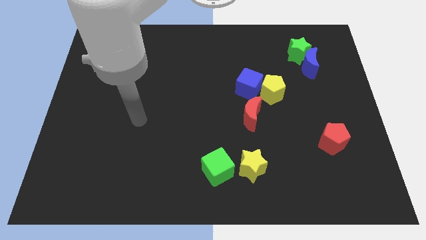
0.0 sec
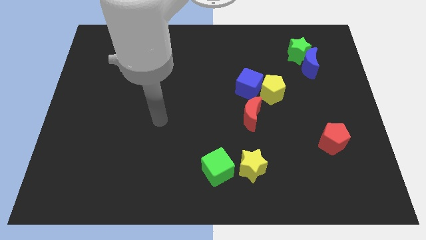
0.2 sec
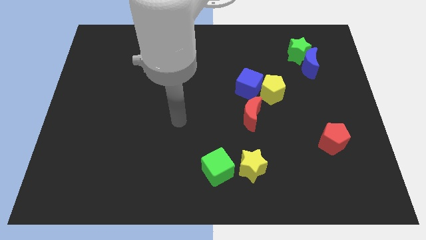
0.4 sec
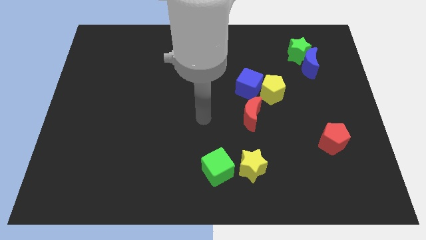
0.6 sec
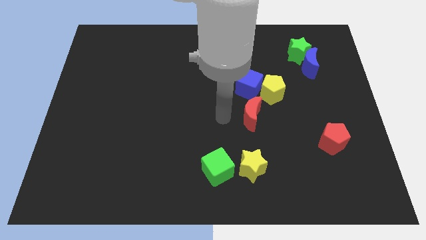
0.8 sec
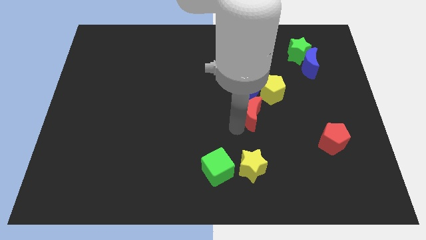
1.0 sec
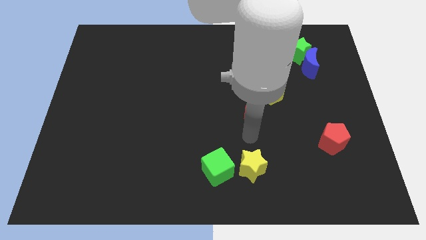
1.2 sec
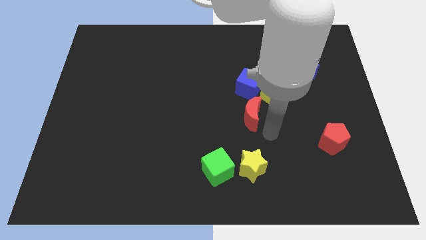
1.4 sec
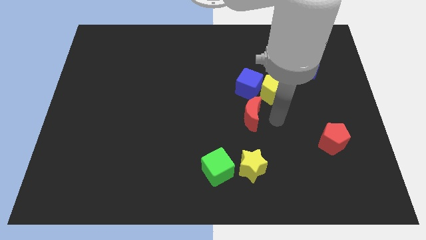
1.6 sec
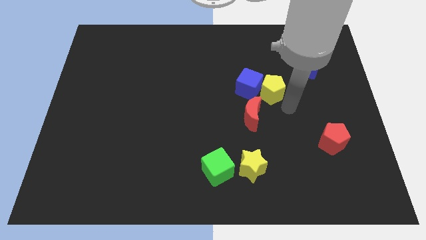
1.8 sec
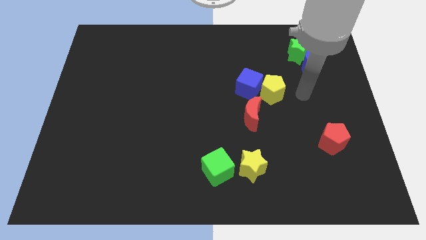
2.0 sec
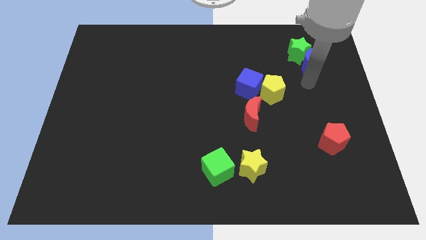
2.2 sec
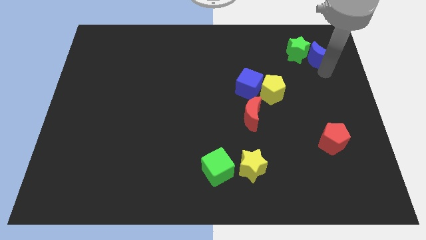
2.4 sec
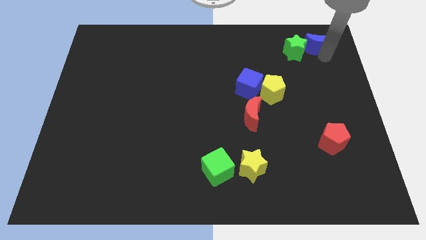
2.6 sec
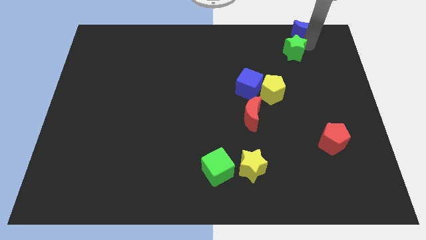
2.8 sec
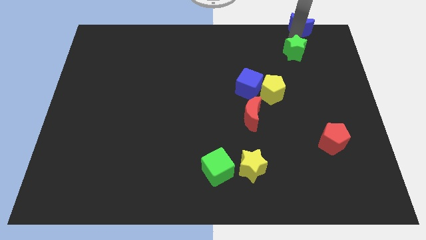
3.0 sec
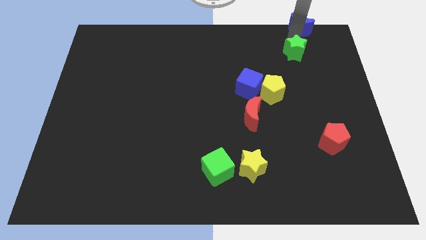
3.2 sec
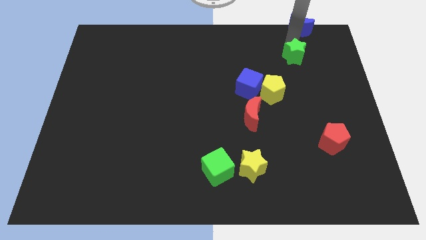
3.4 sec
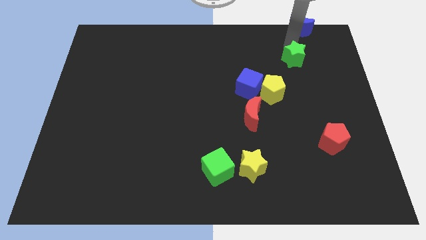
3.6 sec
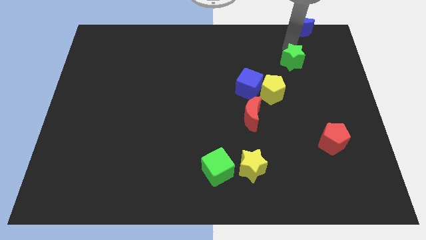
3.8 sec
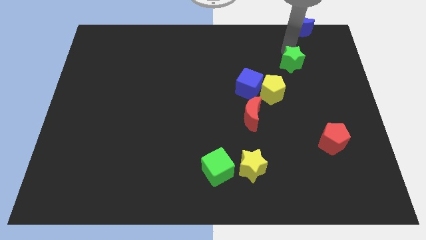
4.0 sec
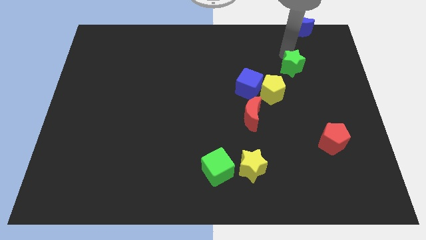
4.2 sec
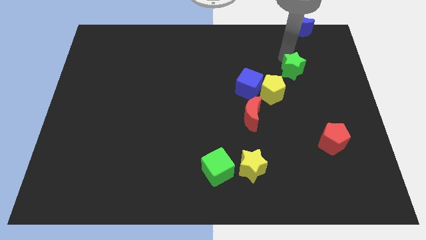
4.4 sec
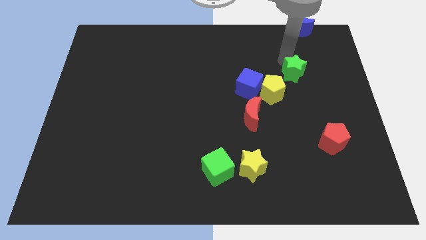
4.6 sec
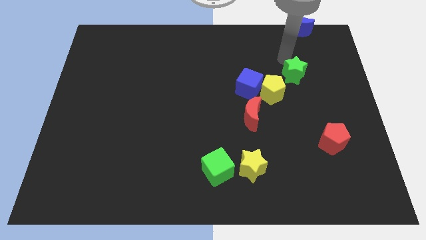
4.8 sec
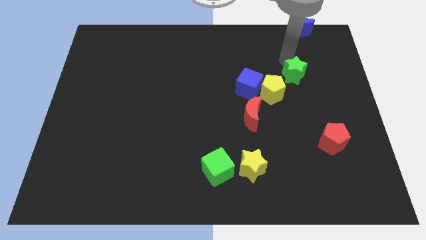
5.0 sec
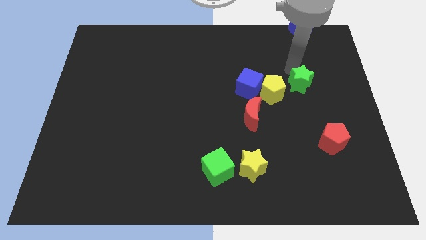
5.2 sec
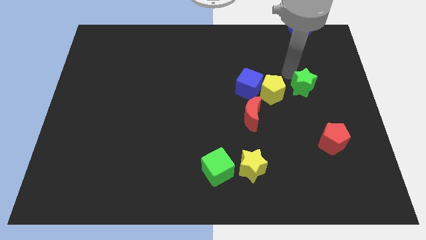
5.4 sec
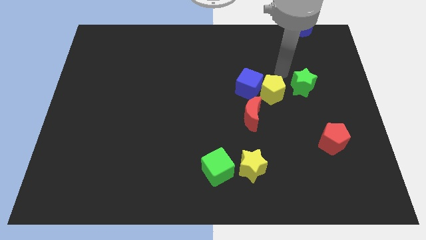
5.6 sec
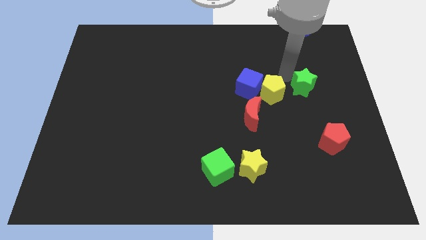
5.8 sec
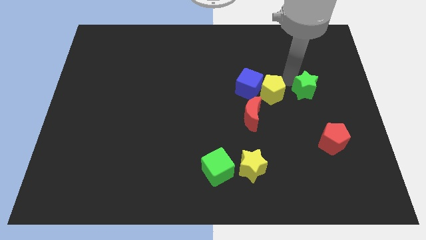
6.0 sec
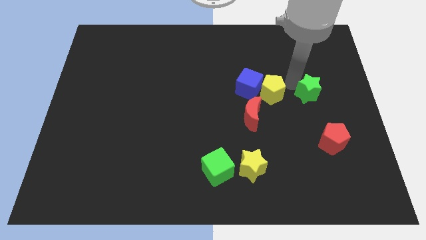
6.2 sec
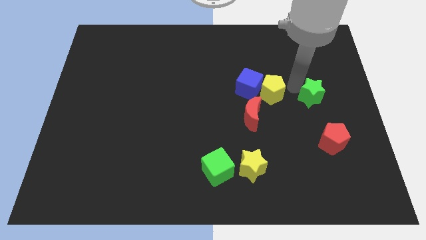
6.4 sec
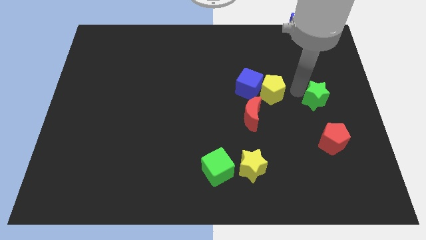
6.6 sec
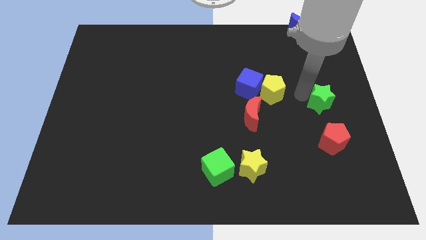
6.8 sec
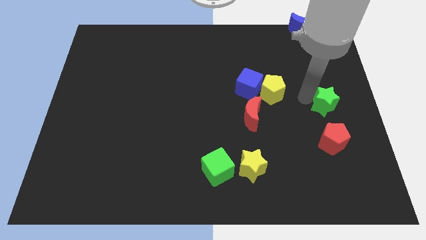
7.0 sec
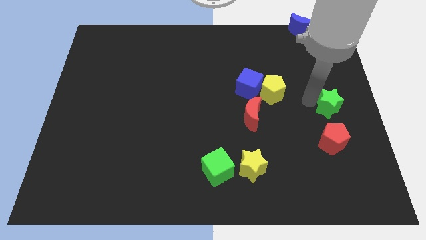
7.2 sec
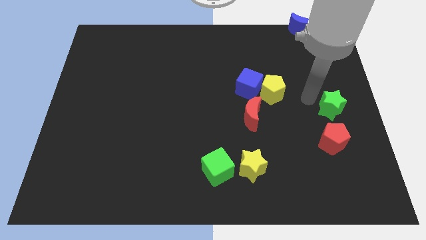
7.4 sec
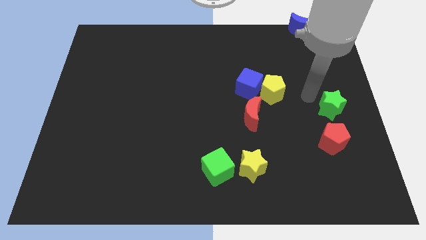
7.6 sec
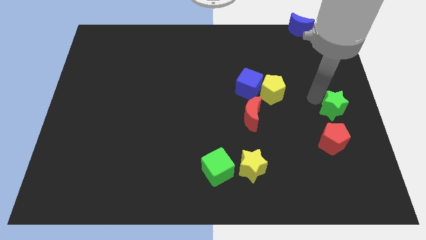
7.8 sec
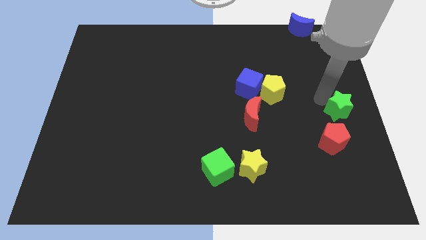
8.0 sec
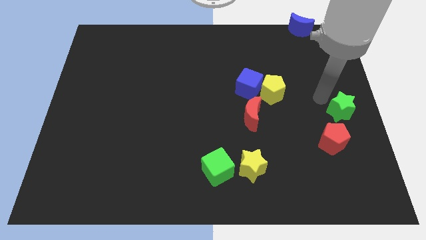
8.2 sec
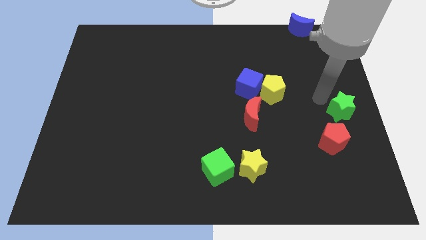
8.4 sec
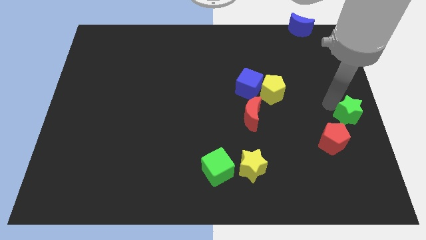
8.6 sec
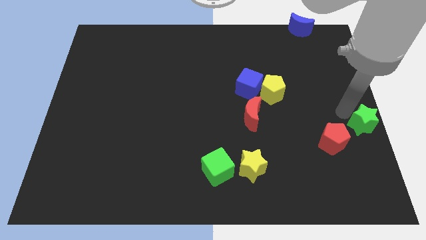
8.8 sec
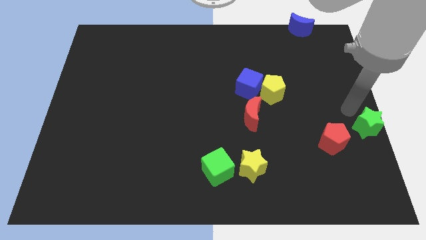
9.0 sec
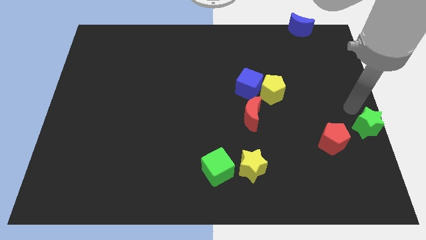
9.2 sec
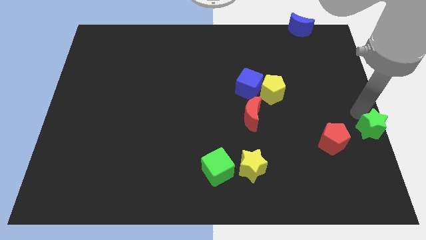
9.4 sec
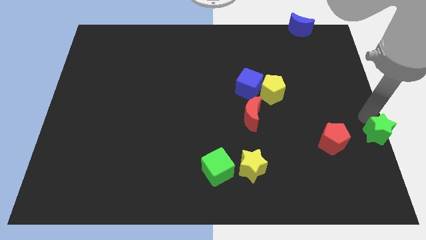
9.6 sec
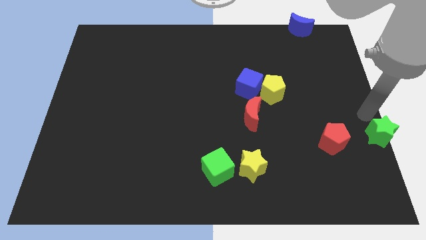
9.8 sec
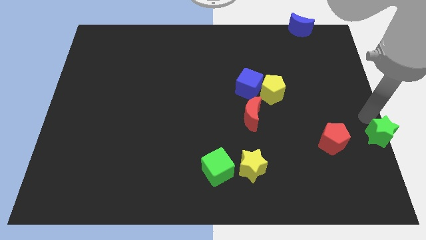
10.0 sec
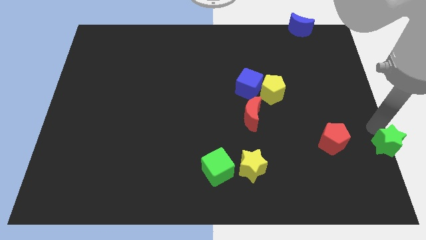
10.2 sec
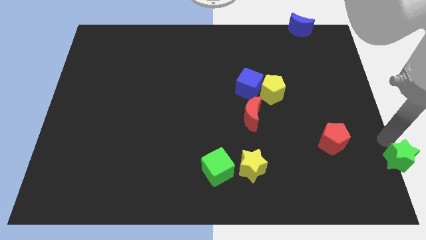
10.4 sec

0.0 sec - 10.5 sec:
push the green star to the bottom right of the board

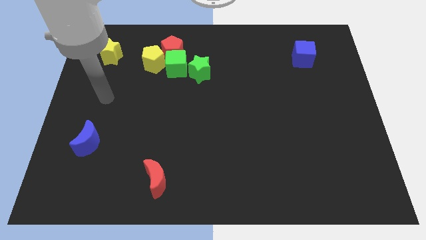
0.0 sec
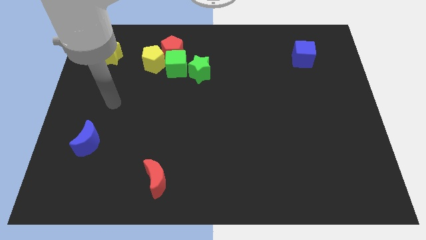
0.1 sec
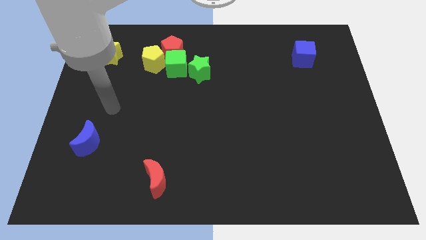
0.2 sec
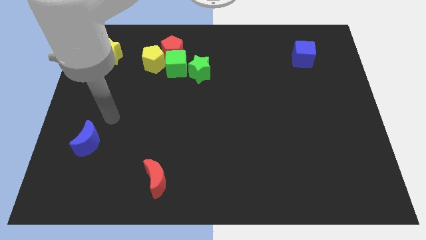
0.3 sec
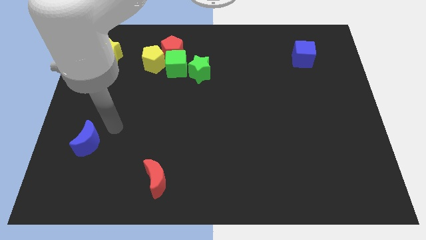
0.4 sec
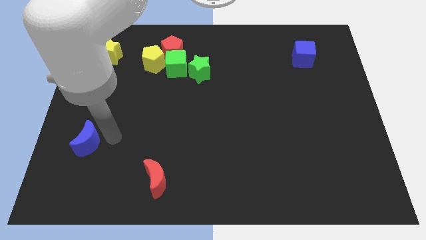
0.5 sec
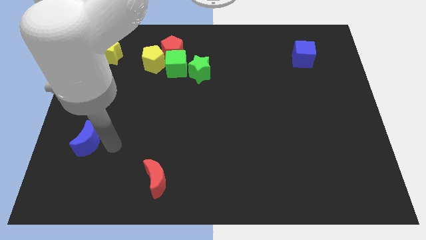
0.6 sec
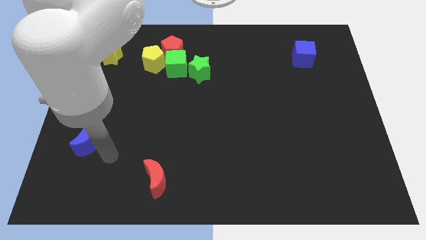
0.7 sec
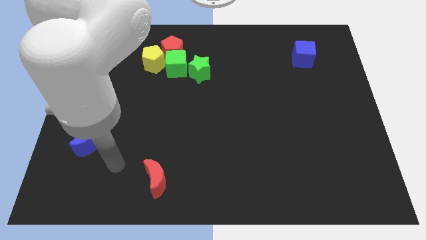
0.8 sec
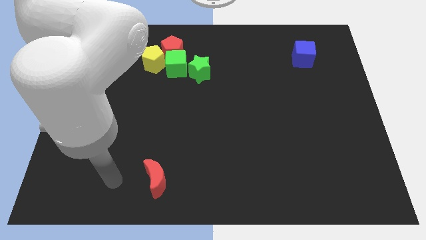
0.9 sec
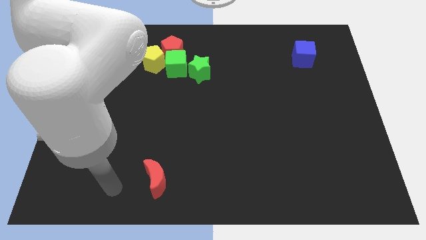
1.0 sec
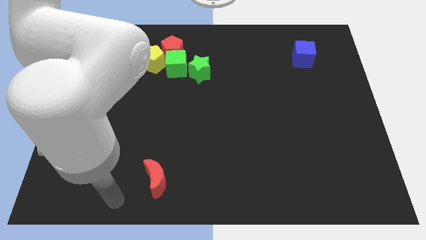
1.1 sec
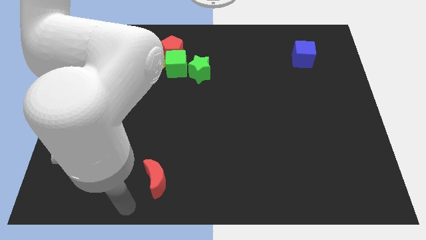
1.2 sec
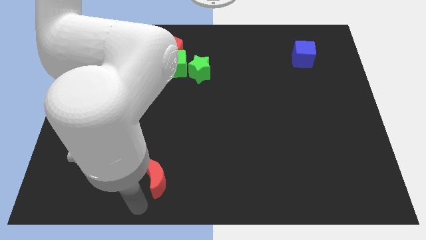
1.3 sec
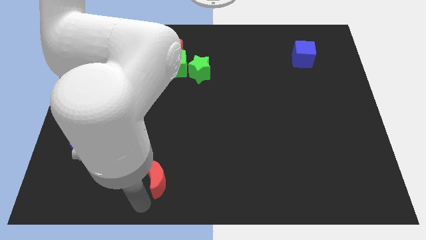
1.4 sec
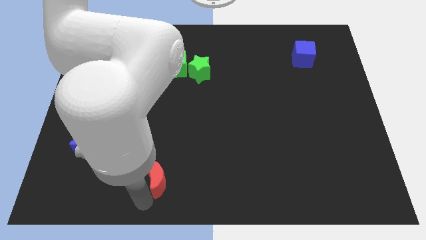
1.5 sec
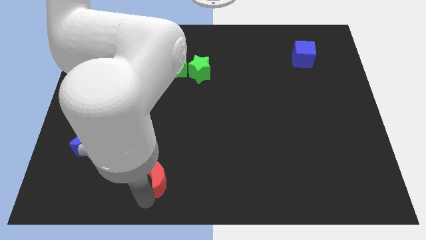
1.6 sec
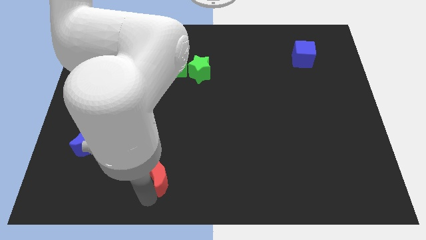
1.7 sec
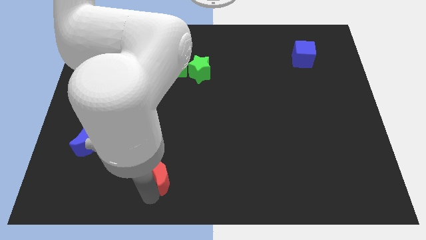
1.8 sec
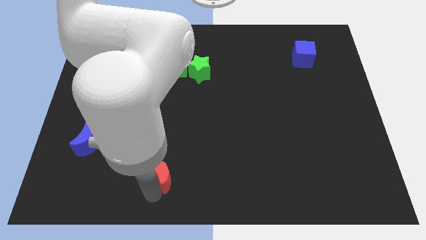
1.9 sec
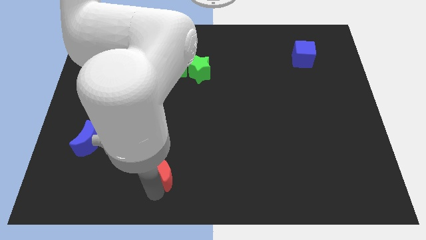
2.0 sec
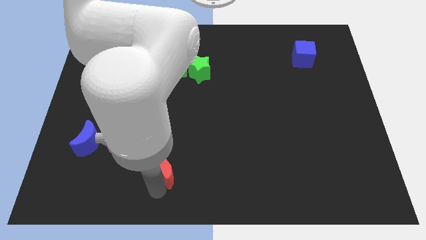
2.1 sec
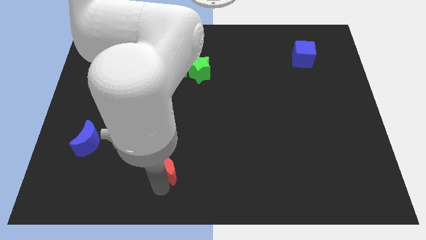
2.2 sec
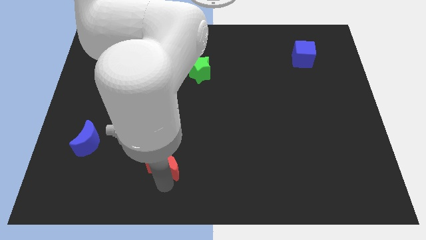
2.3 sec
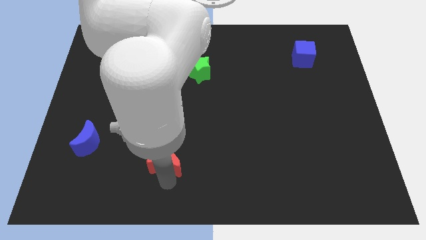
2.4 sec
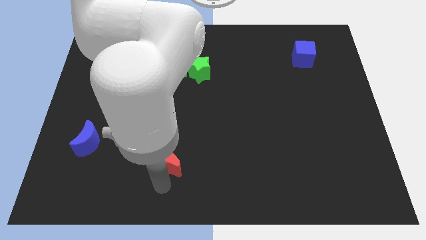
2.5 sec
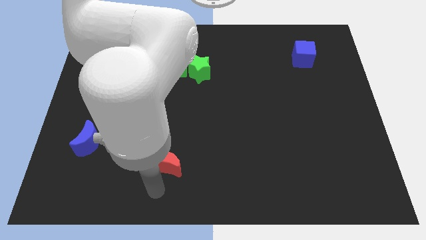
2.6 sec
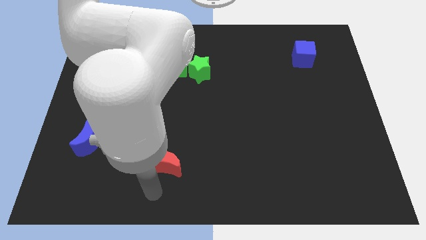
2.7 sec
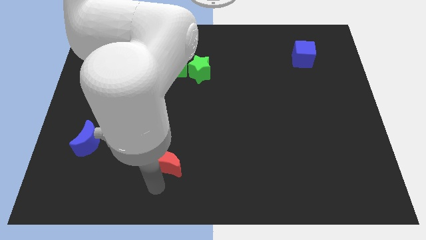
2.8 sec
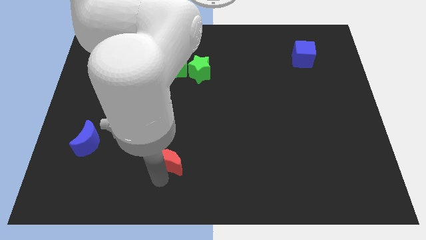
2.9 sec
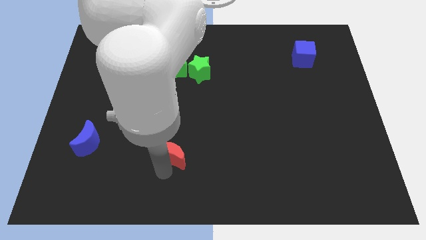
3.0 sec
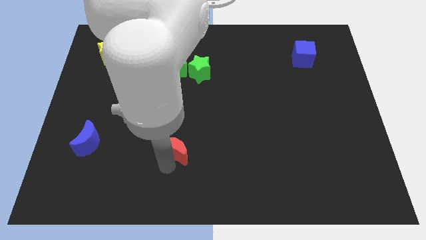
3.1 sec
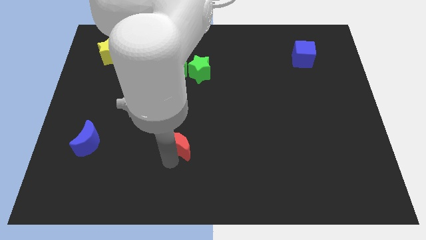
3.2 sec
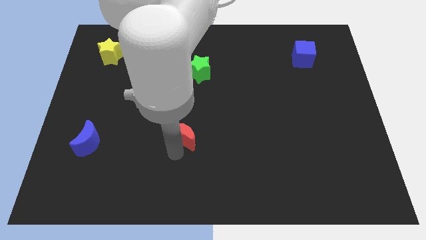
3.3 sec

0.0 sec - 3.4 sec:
slide the red moon to the center
